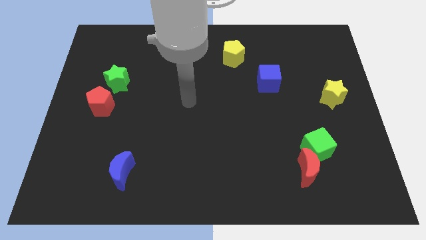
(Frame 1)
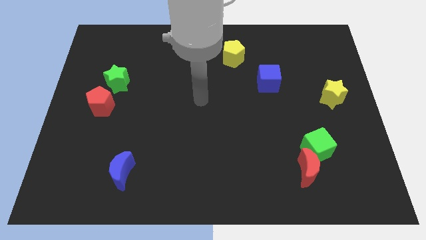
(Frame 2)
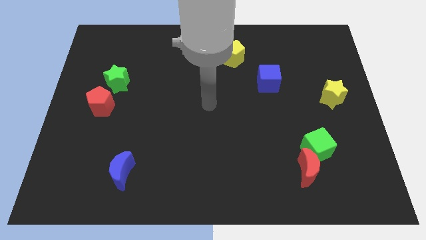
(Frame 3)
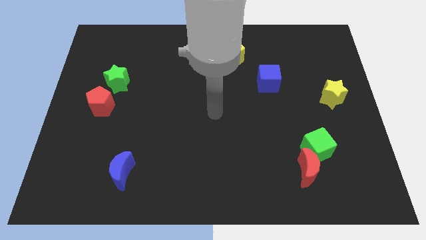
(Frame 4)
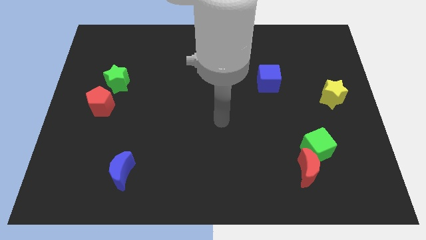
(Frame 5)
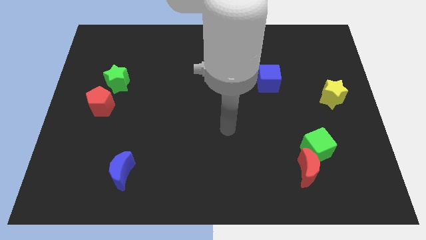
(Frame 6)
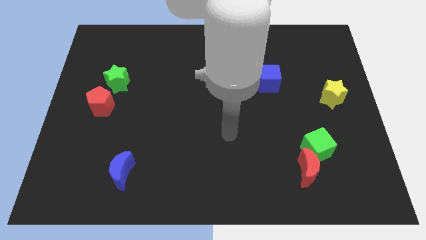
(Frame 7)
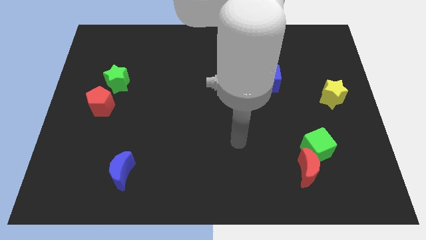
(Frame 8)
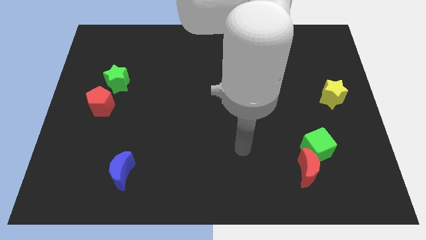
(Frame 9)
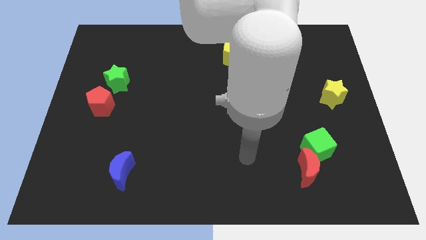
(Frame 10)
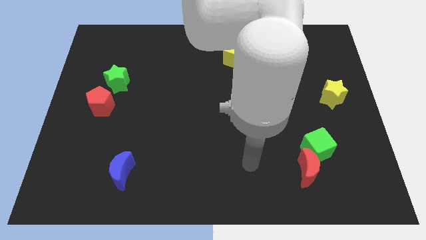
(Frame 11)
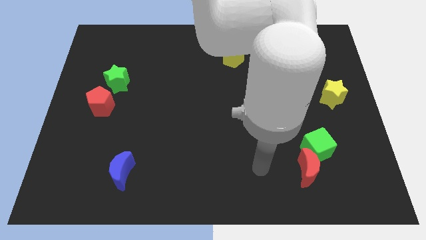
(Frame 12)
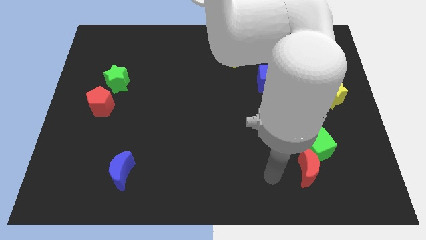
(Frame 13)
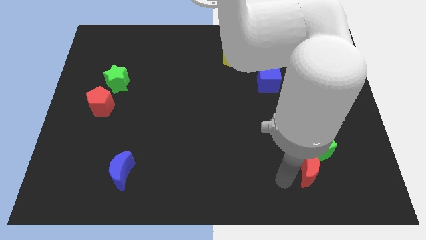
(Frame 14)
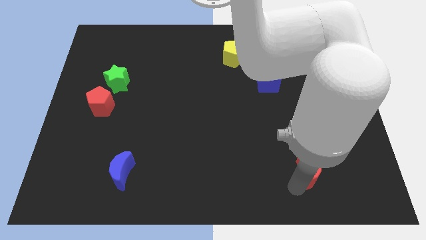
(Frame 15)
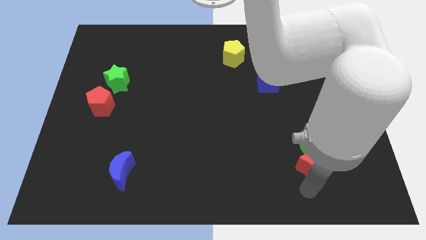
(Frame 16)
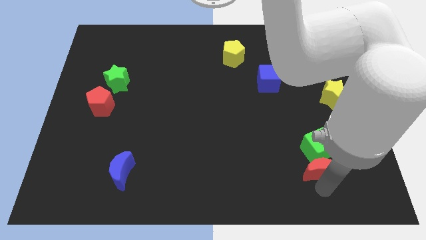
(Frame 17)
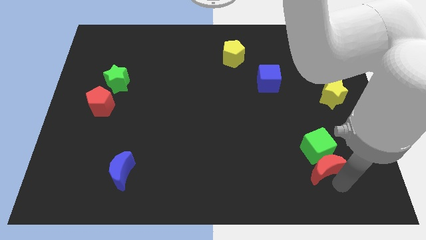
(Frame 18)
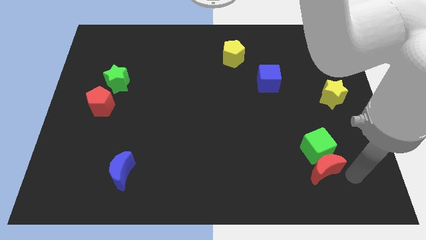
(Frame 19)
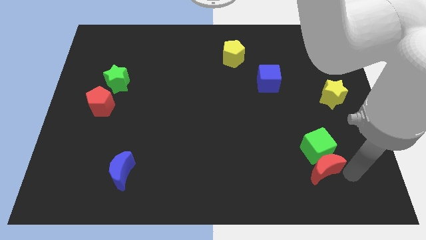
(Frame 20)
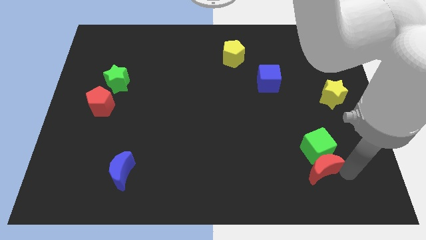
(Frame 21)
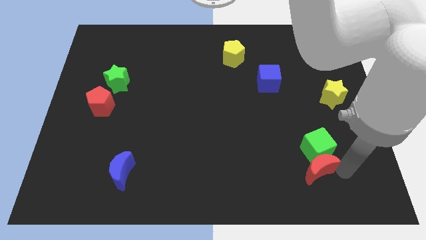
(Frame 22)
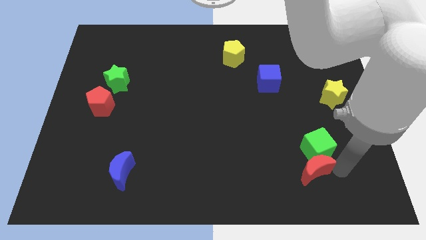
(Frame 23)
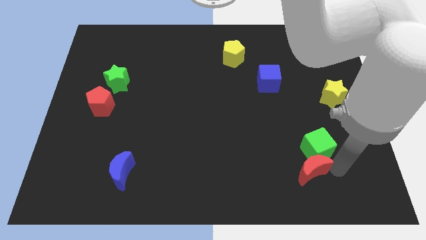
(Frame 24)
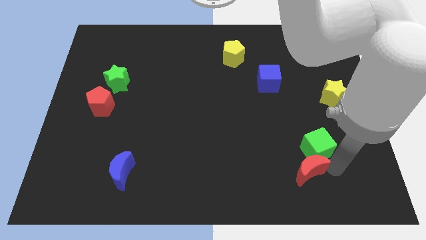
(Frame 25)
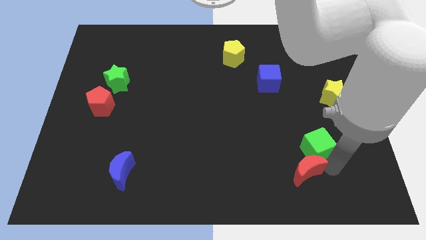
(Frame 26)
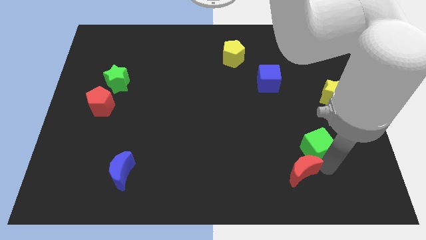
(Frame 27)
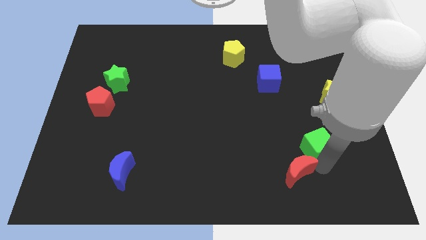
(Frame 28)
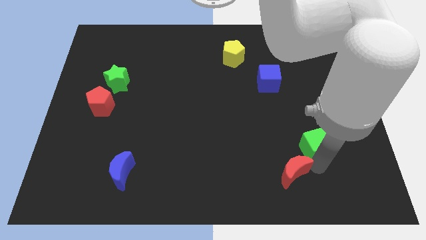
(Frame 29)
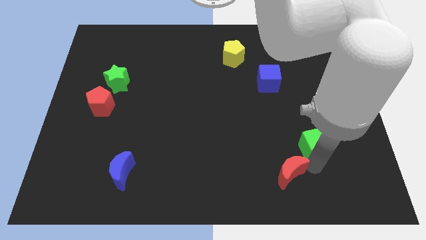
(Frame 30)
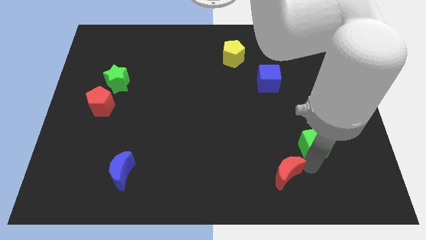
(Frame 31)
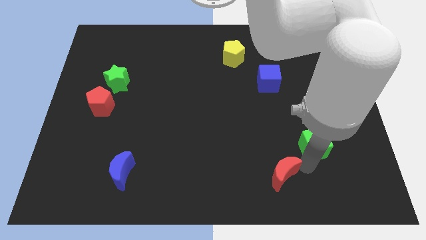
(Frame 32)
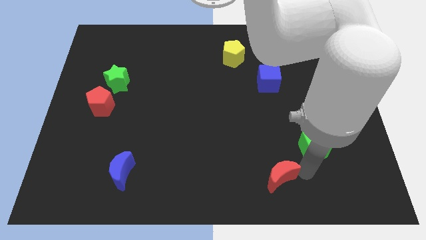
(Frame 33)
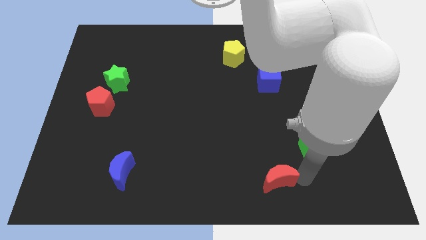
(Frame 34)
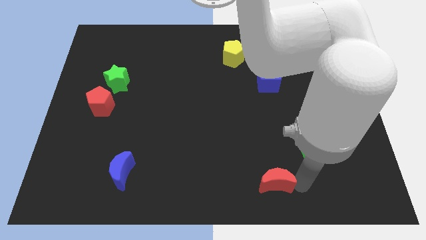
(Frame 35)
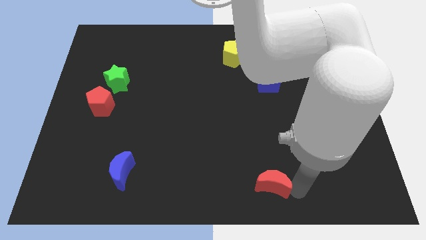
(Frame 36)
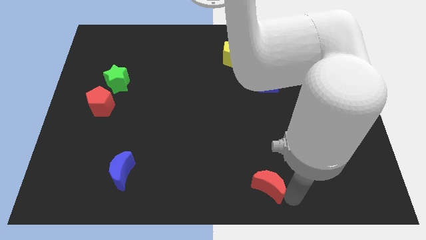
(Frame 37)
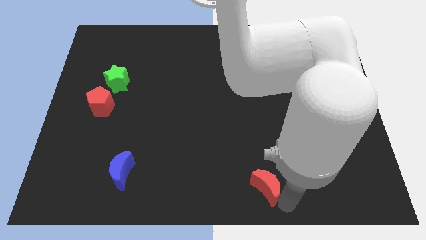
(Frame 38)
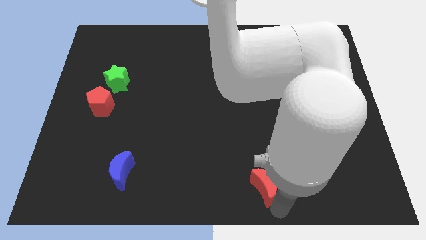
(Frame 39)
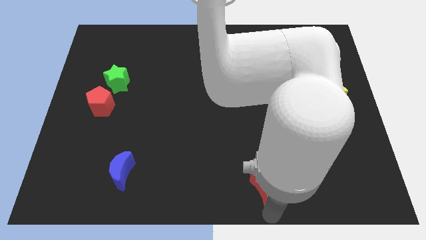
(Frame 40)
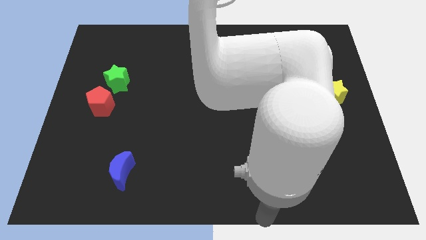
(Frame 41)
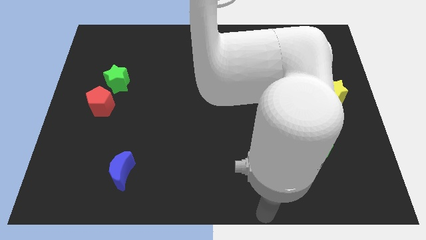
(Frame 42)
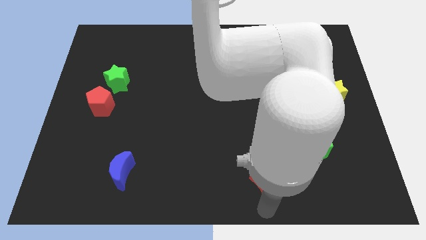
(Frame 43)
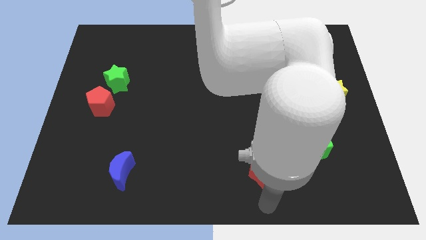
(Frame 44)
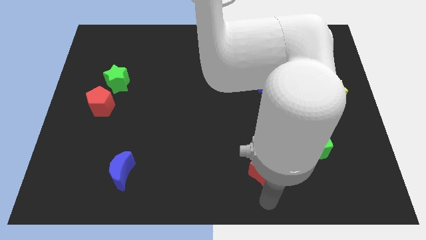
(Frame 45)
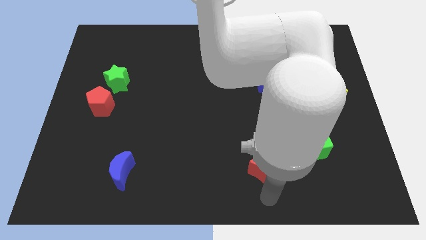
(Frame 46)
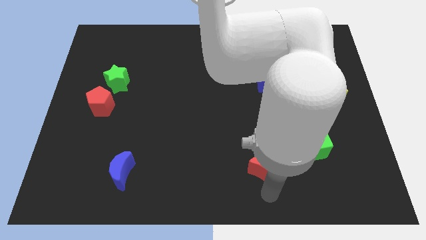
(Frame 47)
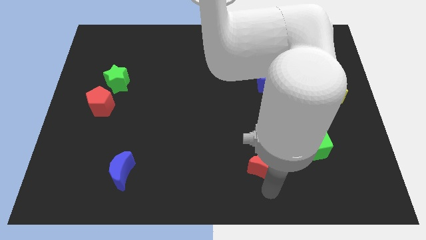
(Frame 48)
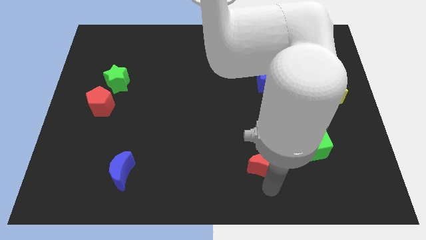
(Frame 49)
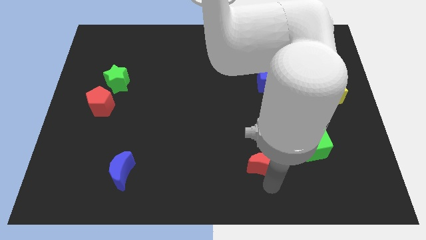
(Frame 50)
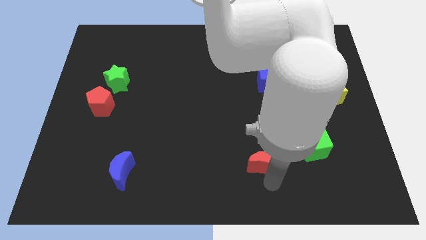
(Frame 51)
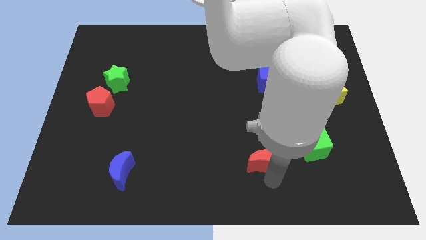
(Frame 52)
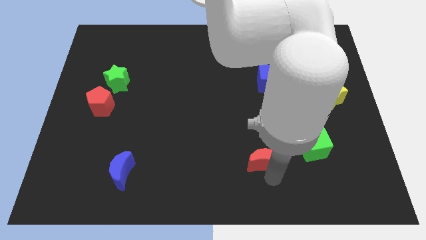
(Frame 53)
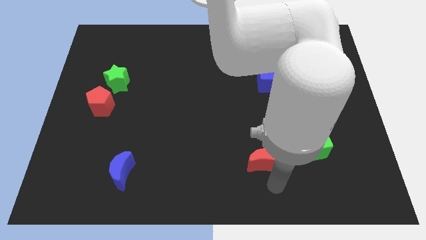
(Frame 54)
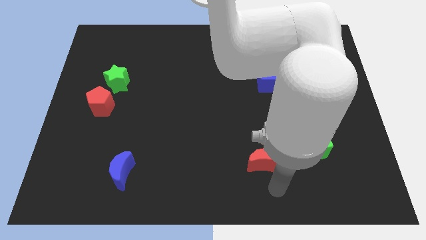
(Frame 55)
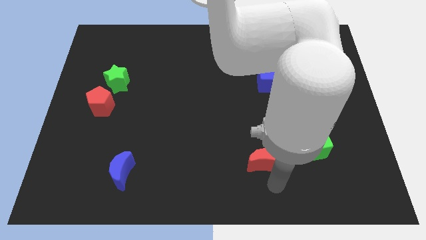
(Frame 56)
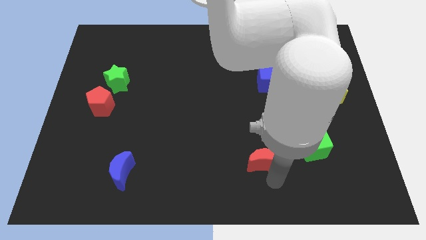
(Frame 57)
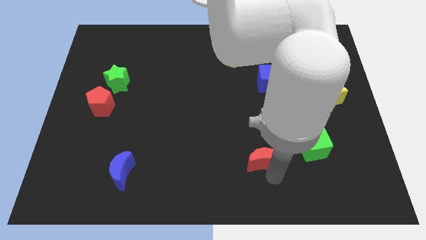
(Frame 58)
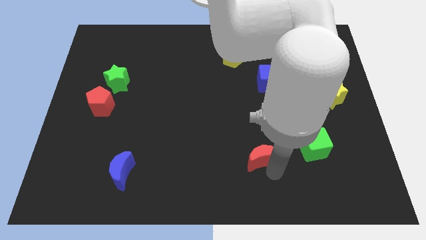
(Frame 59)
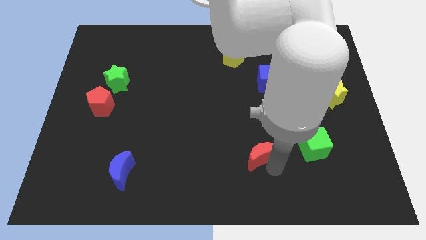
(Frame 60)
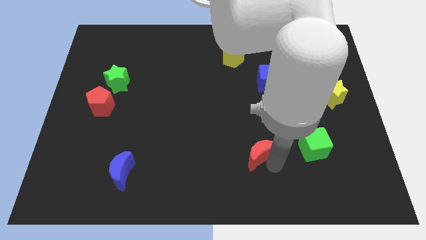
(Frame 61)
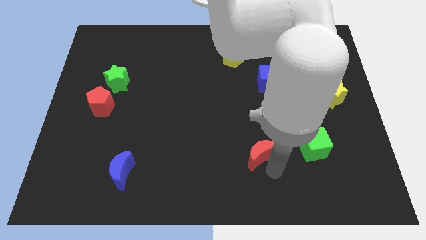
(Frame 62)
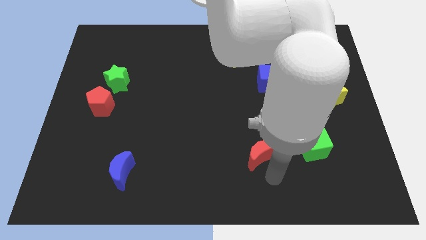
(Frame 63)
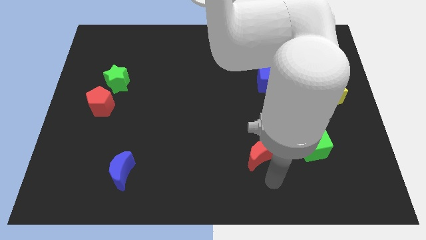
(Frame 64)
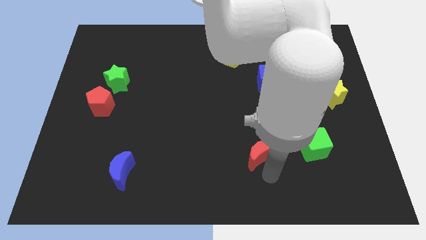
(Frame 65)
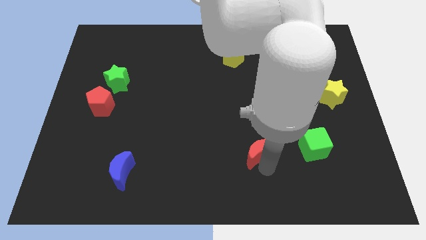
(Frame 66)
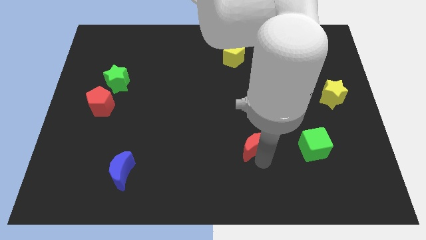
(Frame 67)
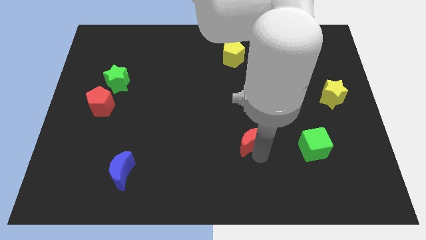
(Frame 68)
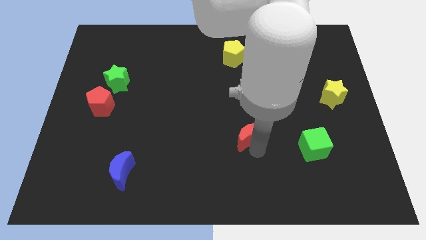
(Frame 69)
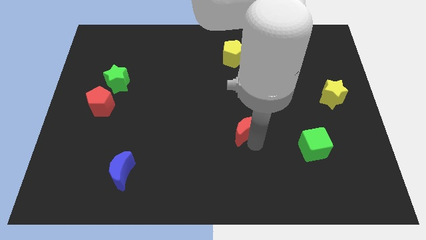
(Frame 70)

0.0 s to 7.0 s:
push the red moon to the middle of the board
